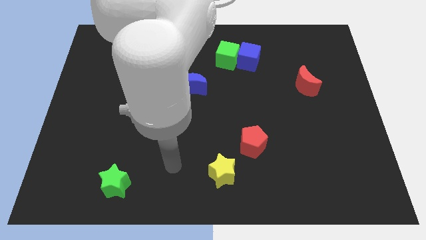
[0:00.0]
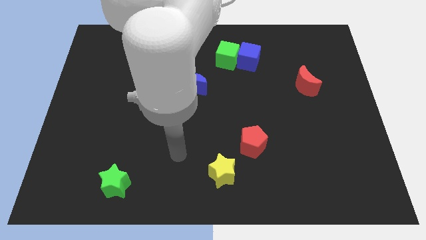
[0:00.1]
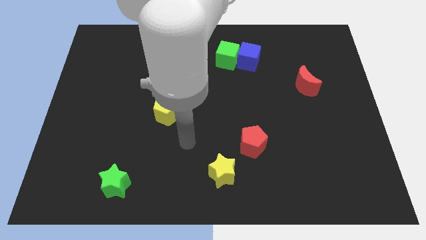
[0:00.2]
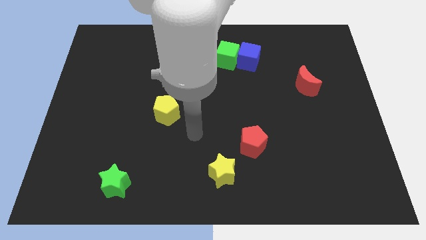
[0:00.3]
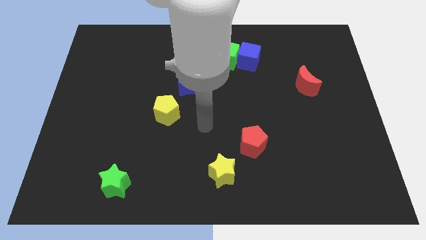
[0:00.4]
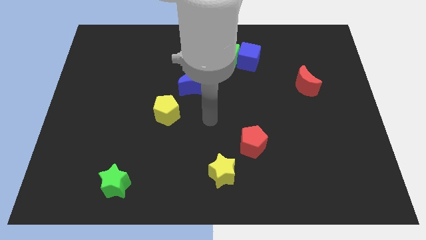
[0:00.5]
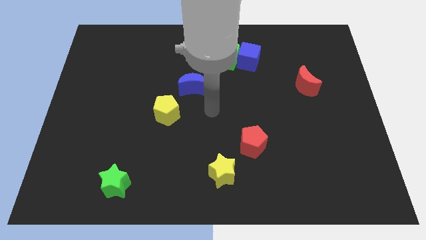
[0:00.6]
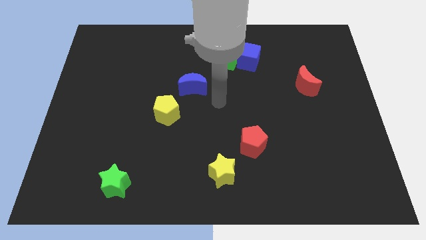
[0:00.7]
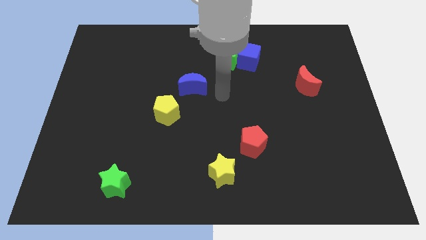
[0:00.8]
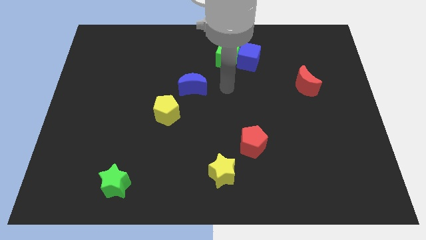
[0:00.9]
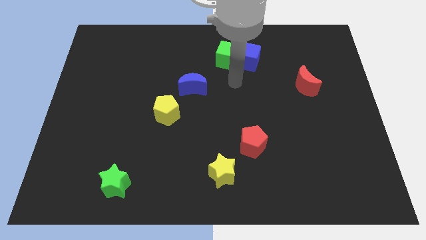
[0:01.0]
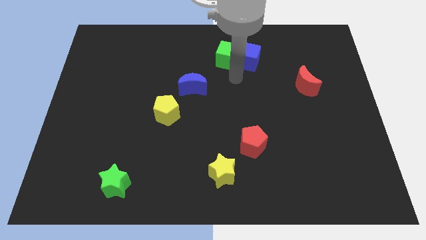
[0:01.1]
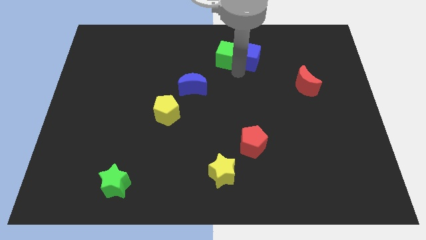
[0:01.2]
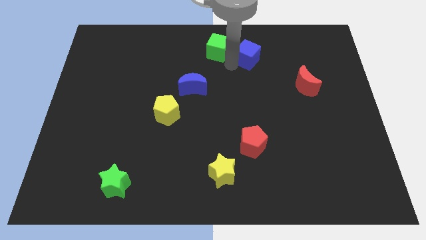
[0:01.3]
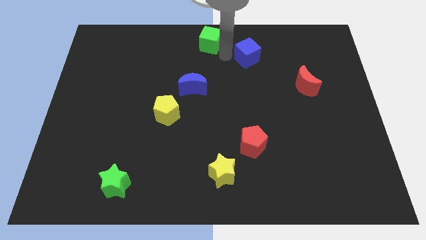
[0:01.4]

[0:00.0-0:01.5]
move the blue cube away from the green cube

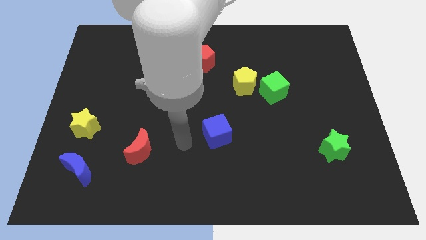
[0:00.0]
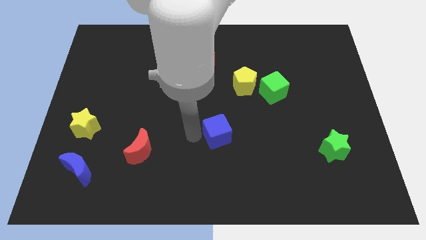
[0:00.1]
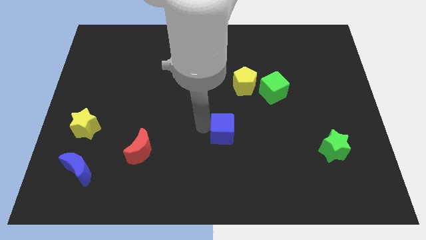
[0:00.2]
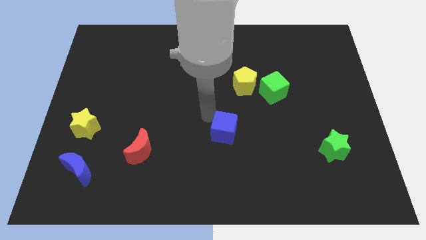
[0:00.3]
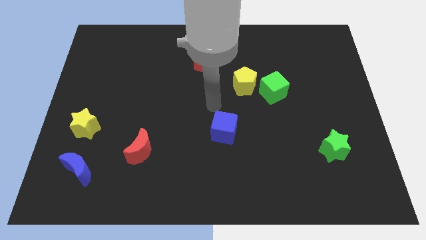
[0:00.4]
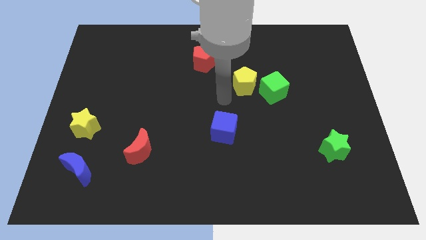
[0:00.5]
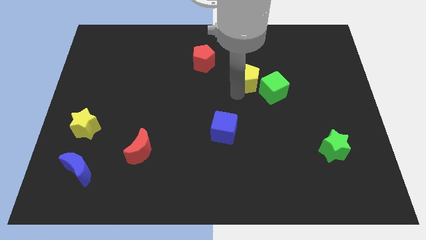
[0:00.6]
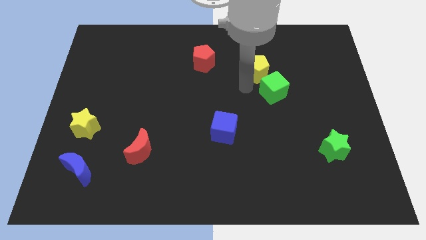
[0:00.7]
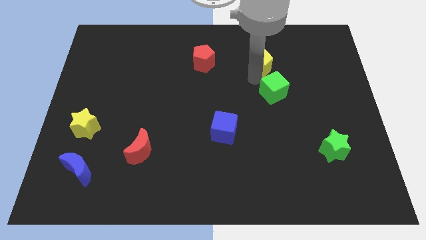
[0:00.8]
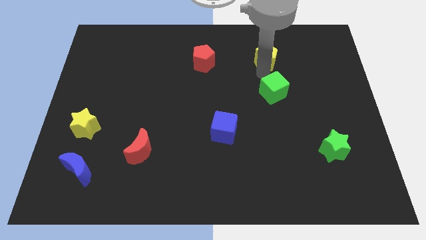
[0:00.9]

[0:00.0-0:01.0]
separate the green cube from the yellow pentagon

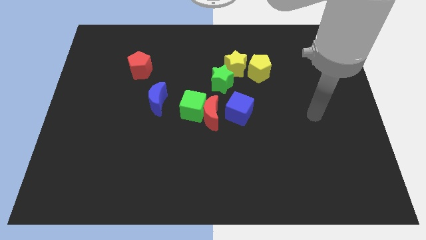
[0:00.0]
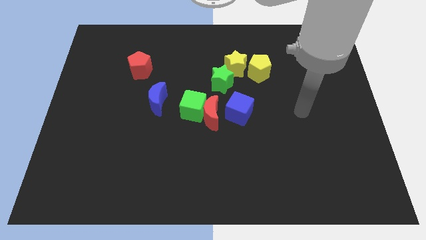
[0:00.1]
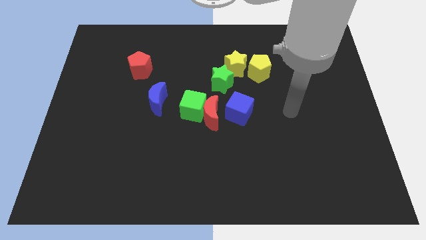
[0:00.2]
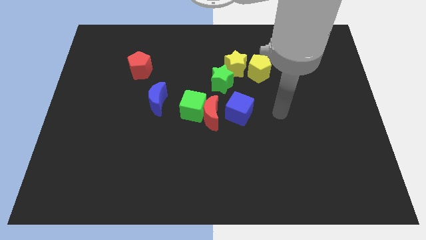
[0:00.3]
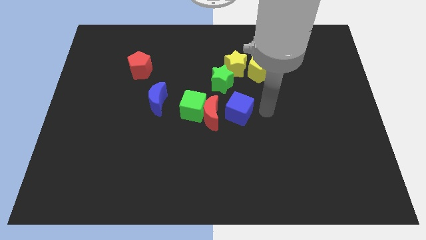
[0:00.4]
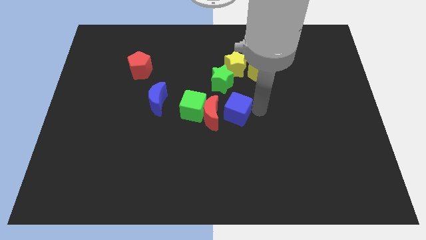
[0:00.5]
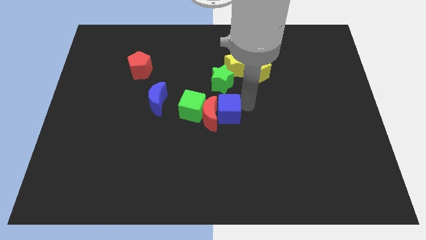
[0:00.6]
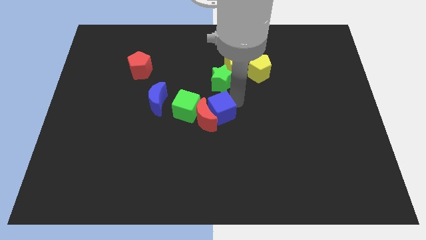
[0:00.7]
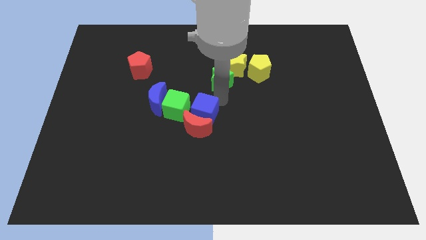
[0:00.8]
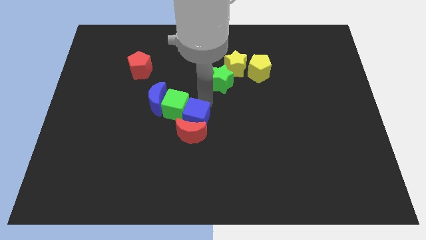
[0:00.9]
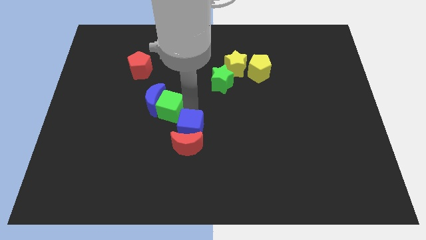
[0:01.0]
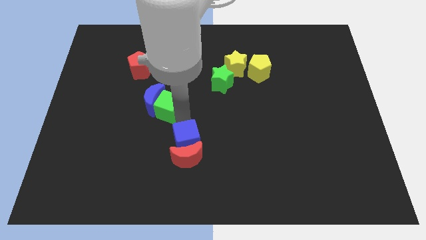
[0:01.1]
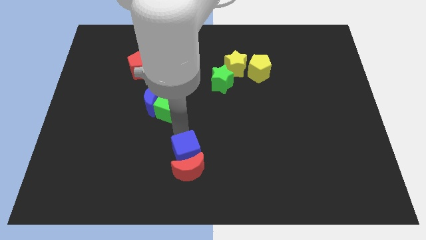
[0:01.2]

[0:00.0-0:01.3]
separate the red moon from the green cube and blue cube

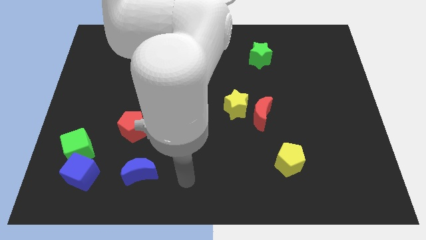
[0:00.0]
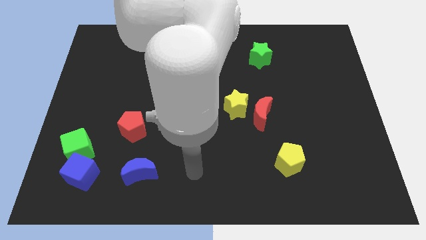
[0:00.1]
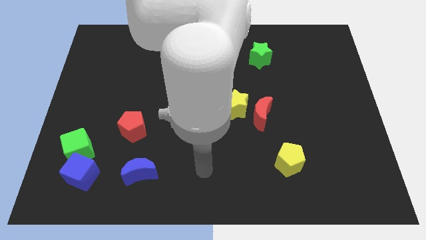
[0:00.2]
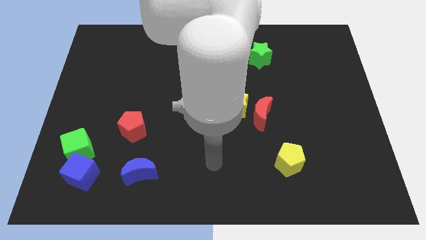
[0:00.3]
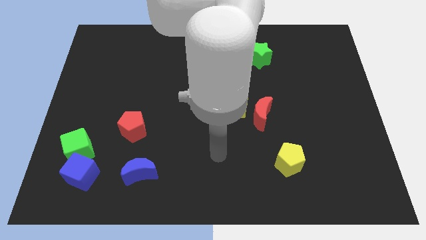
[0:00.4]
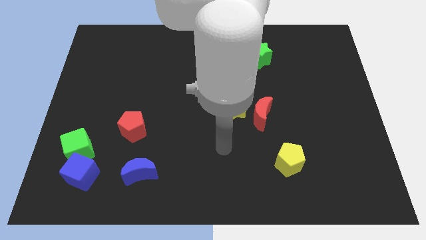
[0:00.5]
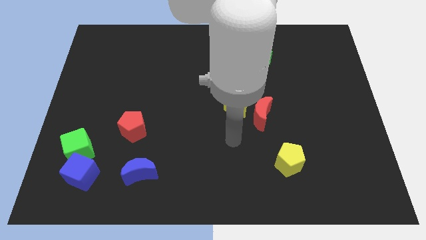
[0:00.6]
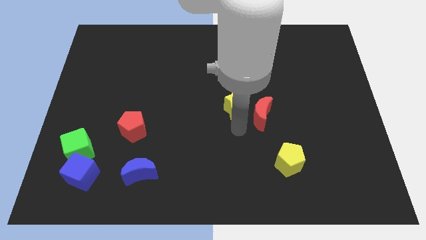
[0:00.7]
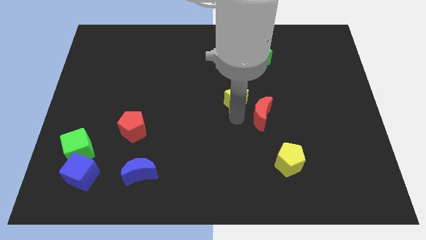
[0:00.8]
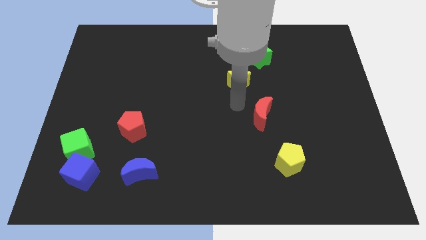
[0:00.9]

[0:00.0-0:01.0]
move the red moon away from the yellow star

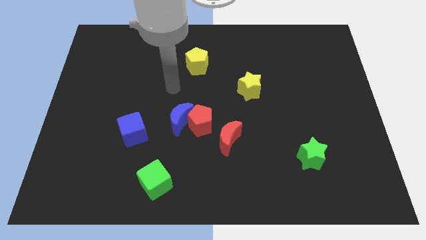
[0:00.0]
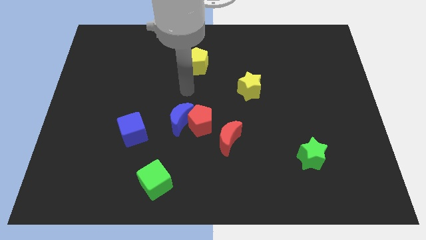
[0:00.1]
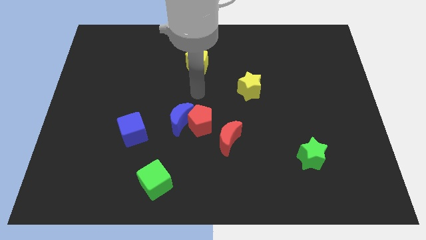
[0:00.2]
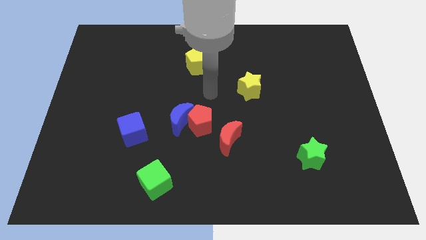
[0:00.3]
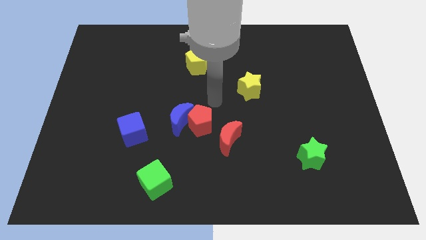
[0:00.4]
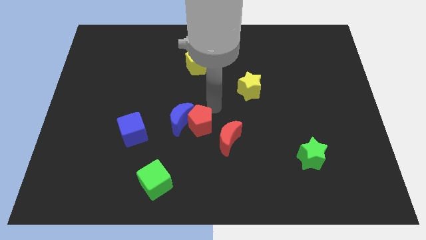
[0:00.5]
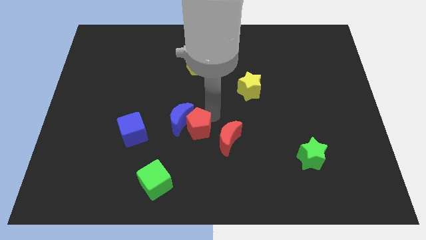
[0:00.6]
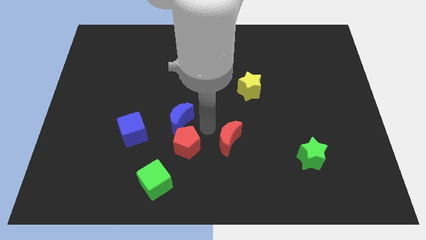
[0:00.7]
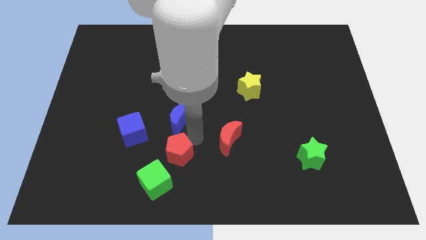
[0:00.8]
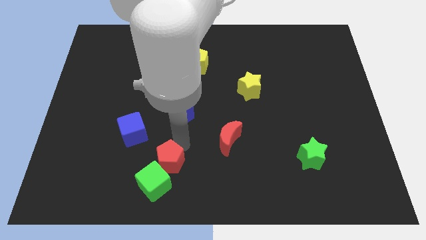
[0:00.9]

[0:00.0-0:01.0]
move the blue moon away from the red pentagon

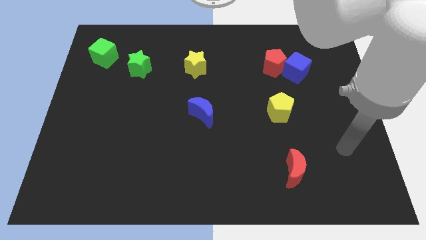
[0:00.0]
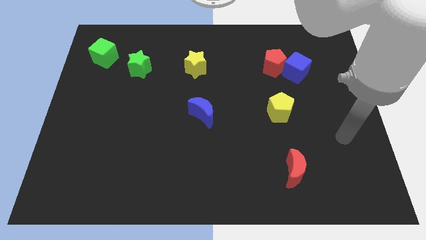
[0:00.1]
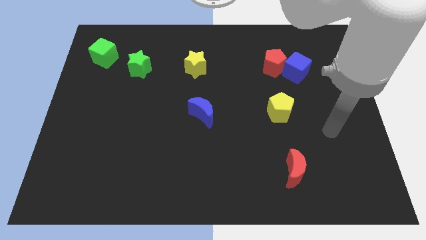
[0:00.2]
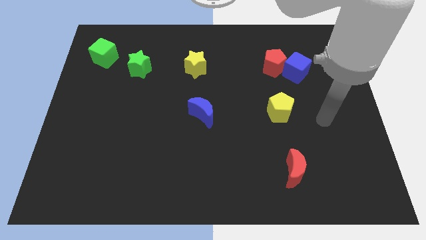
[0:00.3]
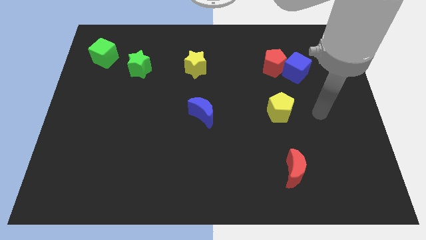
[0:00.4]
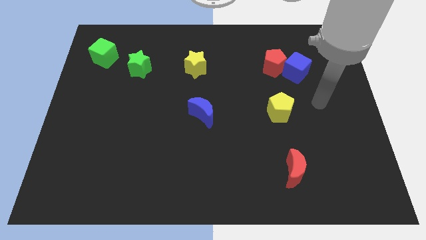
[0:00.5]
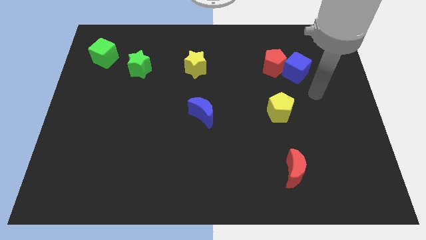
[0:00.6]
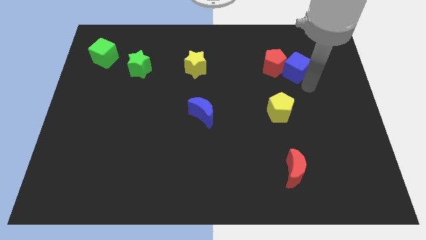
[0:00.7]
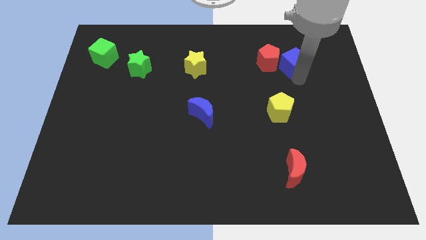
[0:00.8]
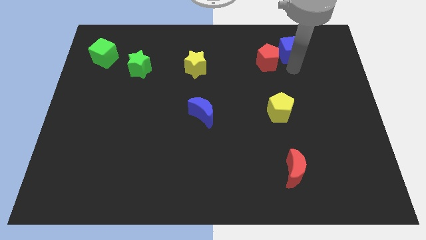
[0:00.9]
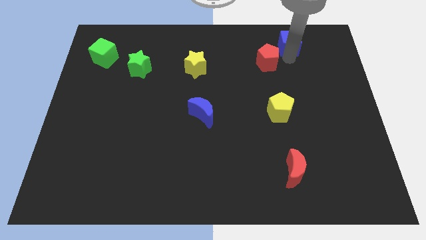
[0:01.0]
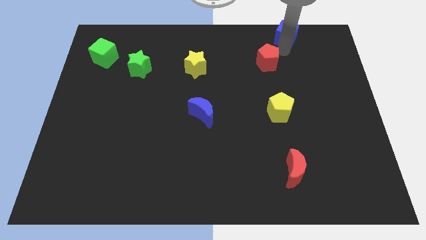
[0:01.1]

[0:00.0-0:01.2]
move the red pentagon away from the blue cube

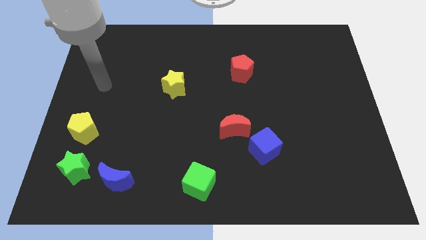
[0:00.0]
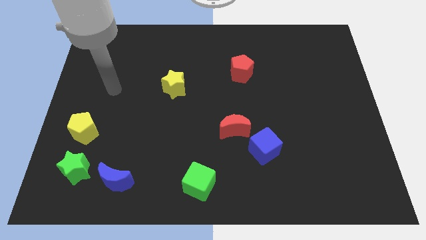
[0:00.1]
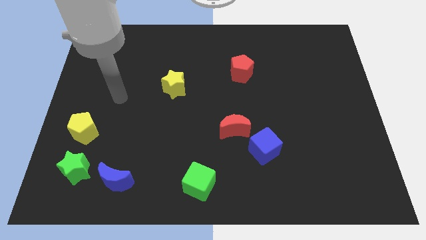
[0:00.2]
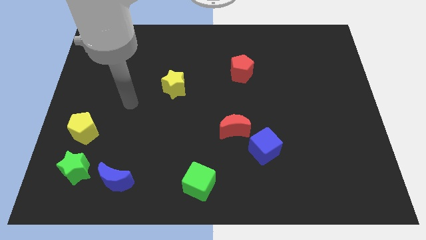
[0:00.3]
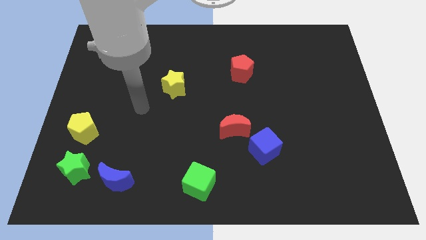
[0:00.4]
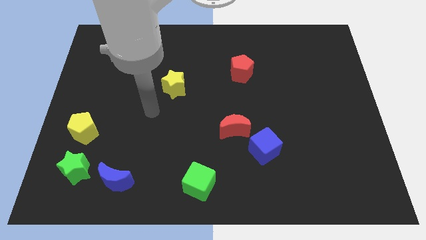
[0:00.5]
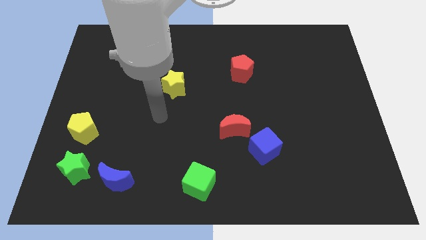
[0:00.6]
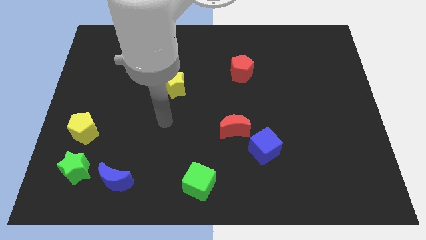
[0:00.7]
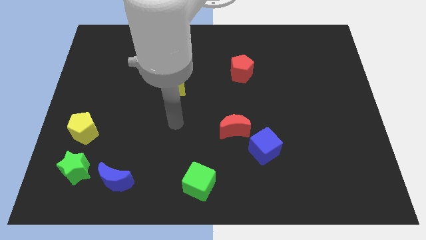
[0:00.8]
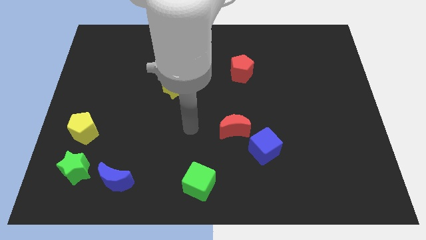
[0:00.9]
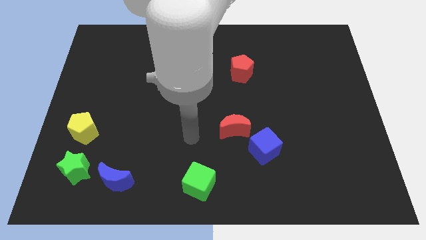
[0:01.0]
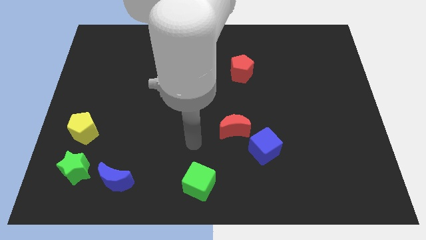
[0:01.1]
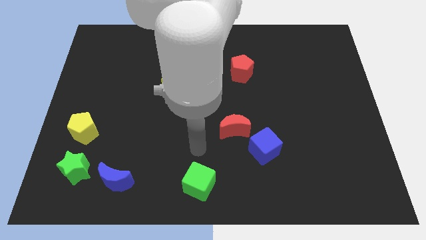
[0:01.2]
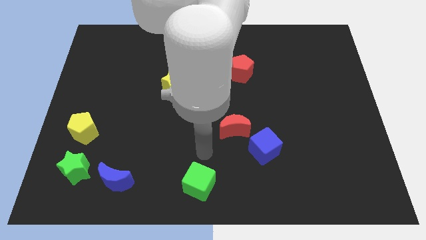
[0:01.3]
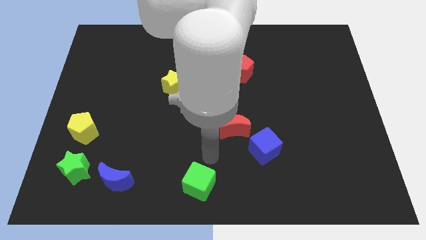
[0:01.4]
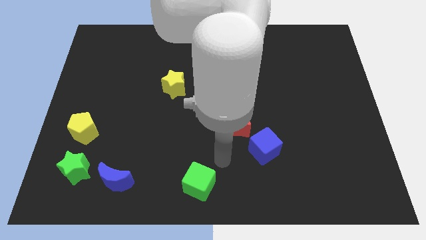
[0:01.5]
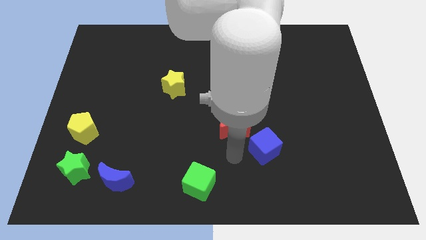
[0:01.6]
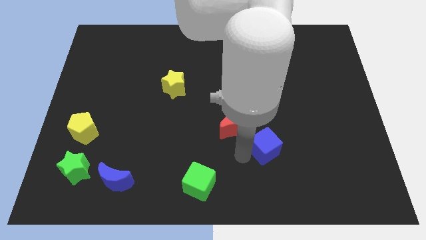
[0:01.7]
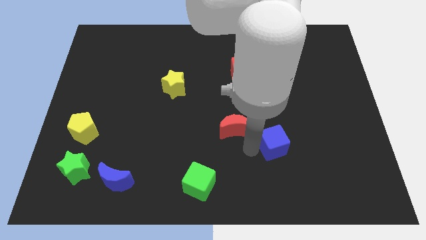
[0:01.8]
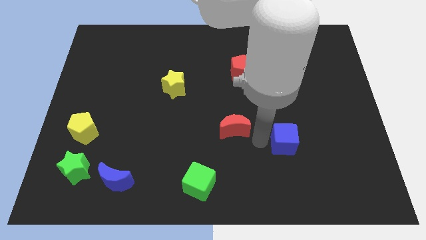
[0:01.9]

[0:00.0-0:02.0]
move the red moon away from the blue cube

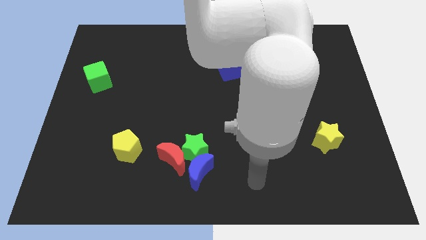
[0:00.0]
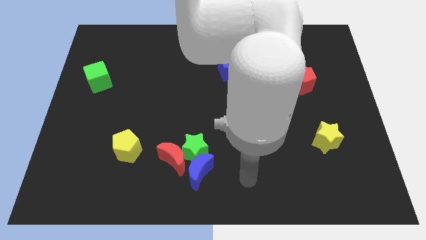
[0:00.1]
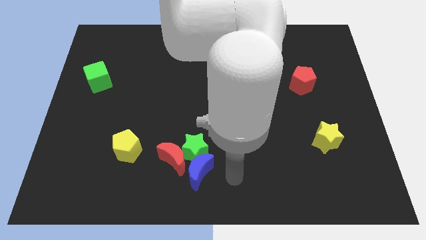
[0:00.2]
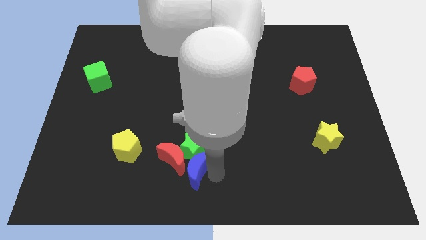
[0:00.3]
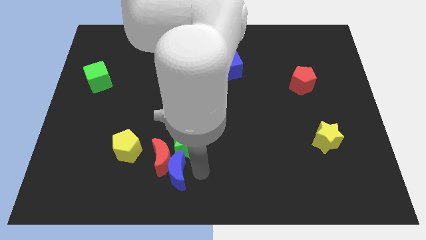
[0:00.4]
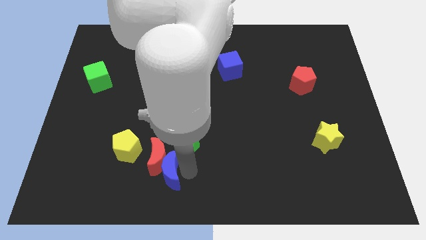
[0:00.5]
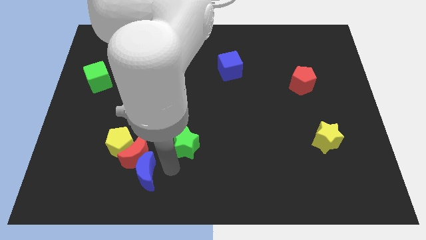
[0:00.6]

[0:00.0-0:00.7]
pull the green star apart from the red moon and blue moon
